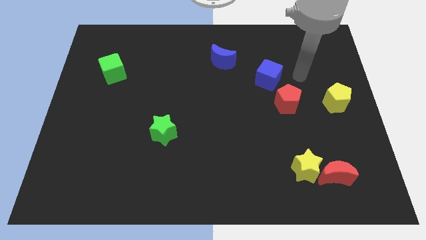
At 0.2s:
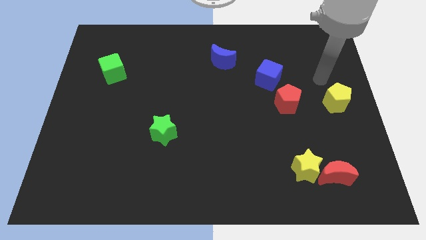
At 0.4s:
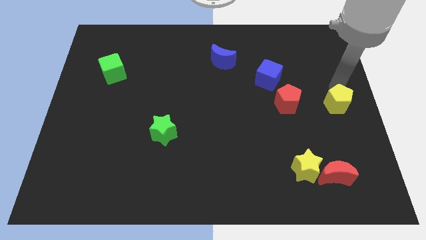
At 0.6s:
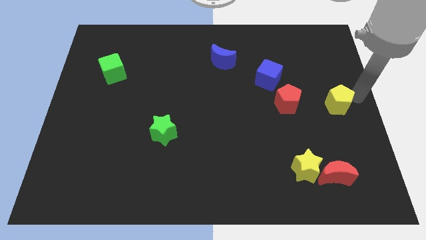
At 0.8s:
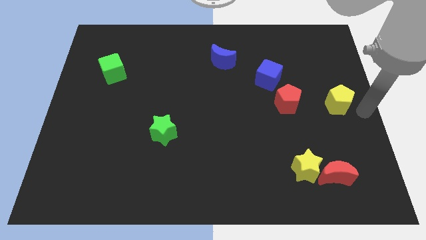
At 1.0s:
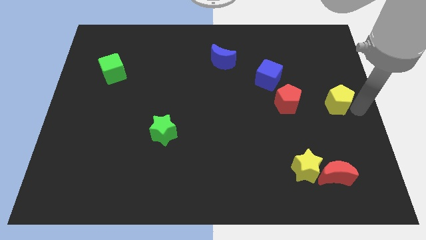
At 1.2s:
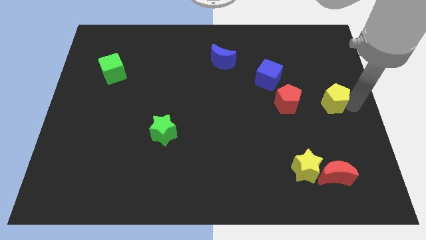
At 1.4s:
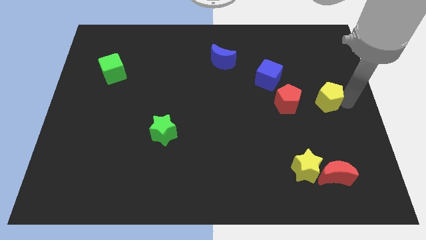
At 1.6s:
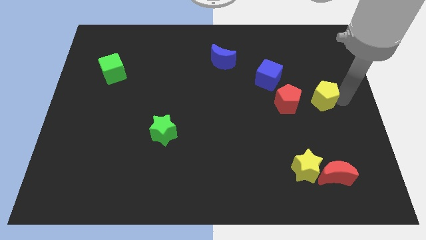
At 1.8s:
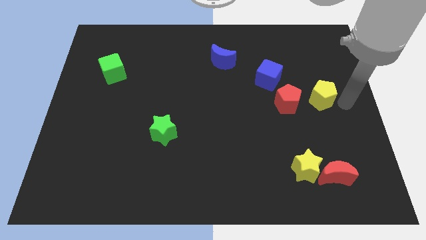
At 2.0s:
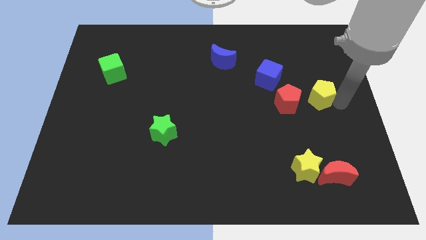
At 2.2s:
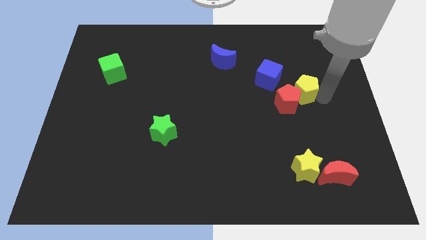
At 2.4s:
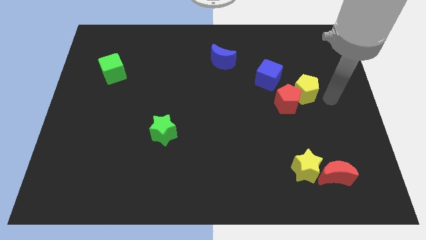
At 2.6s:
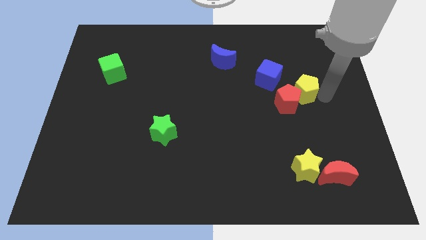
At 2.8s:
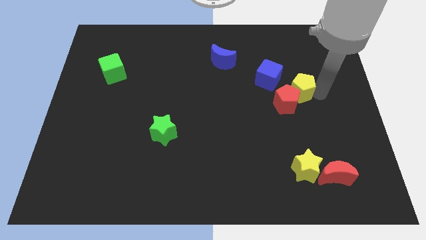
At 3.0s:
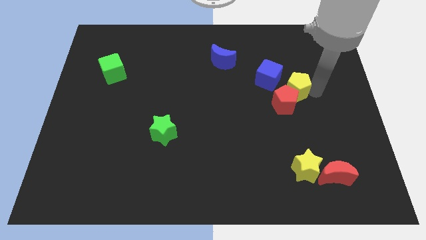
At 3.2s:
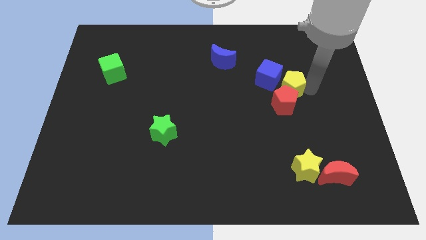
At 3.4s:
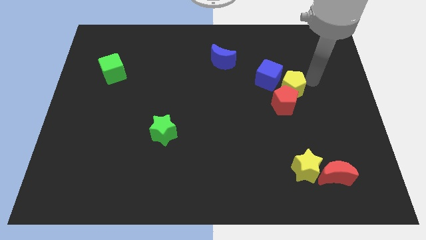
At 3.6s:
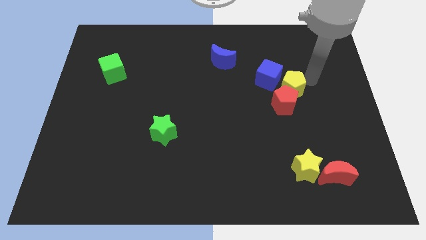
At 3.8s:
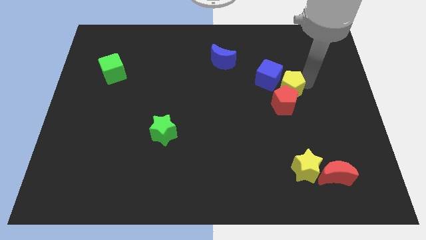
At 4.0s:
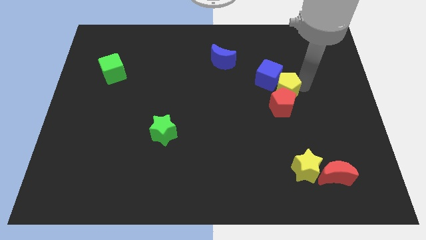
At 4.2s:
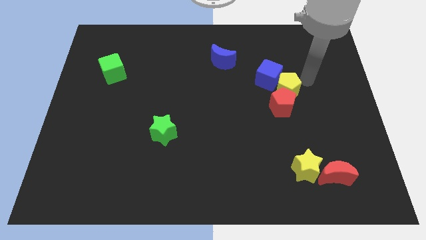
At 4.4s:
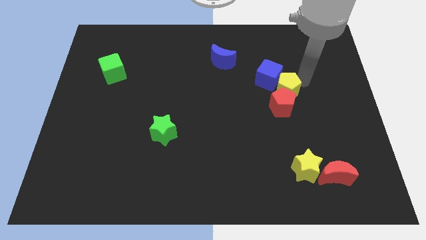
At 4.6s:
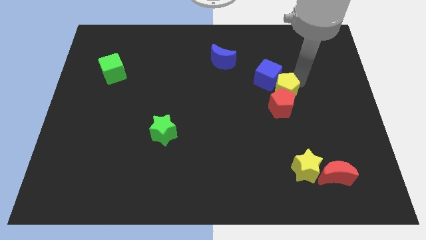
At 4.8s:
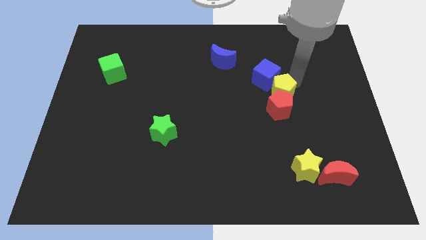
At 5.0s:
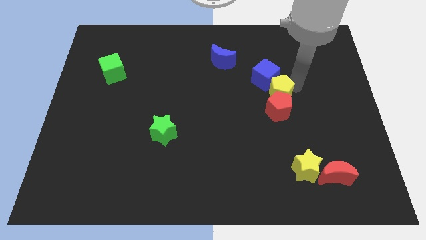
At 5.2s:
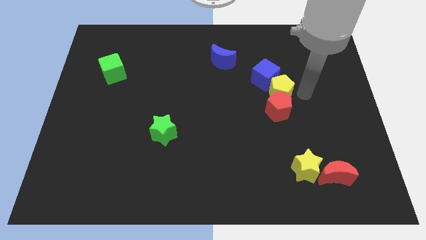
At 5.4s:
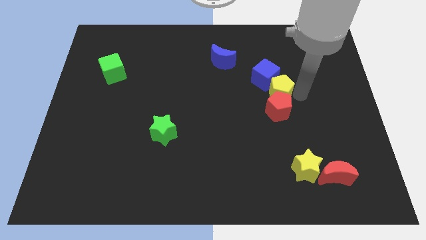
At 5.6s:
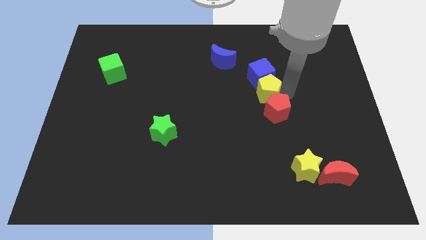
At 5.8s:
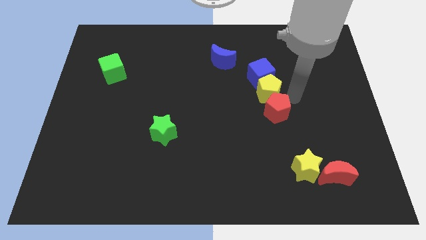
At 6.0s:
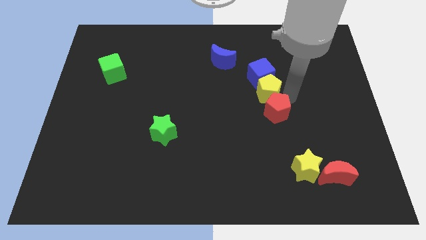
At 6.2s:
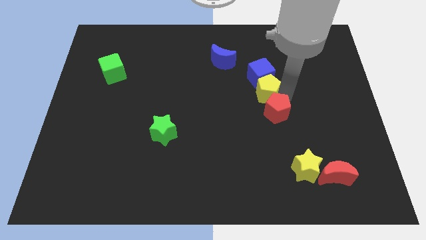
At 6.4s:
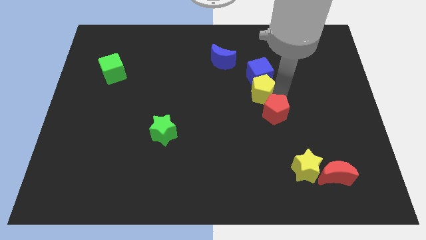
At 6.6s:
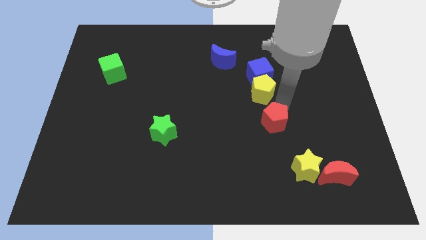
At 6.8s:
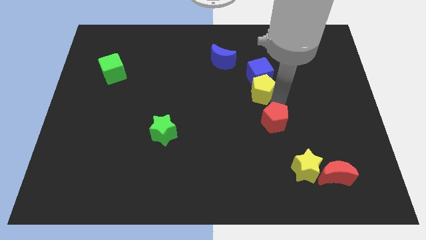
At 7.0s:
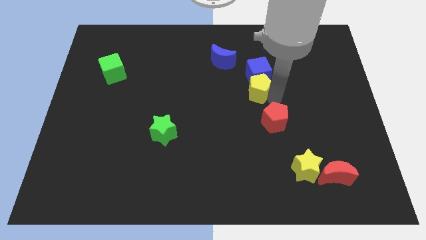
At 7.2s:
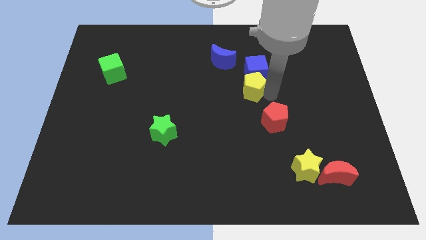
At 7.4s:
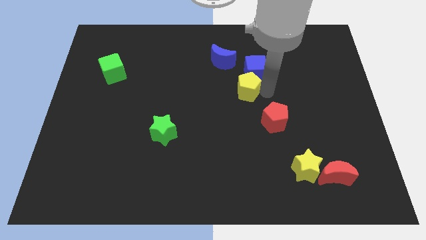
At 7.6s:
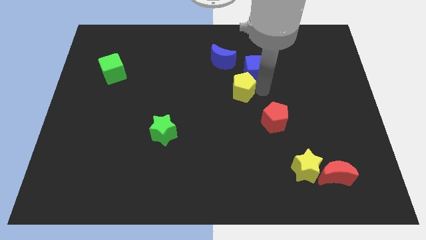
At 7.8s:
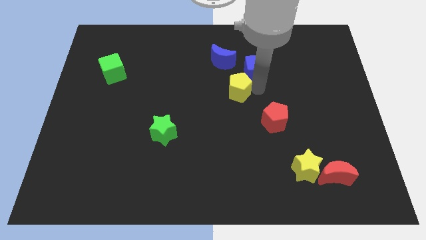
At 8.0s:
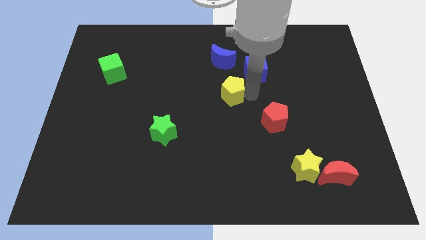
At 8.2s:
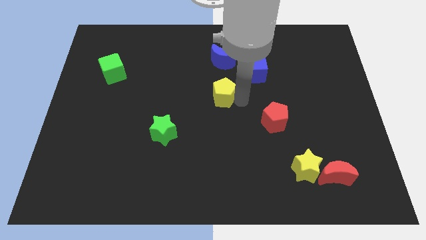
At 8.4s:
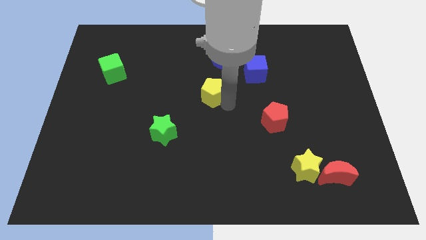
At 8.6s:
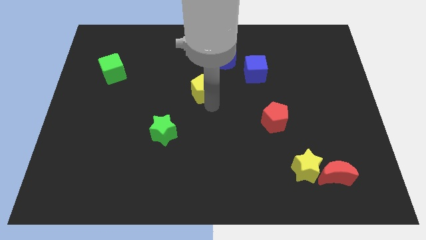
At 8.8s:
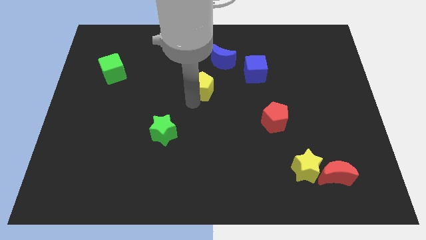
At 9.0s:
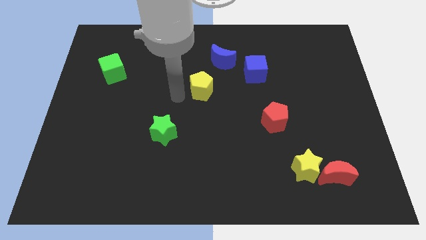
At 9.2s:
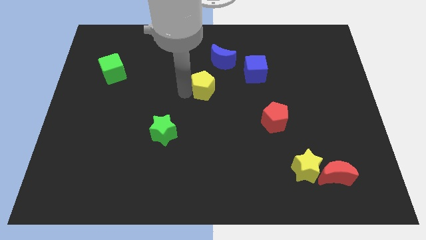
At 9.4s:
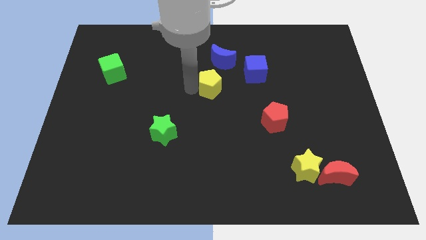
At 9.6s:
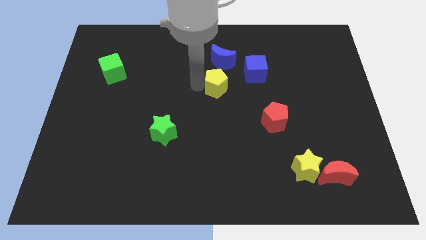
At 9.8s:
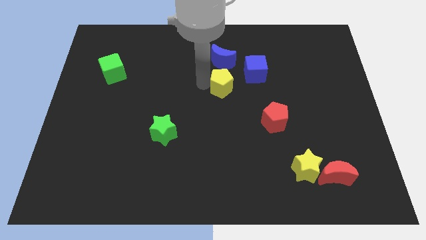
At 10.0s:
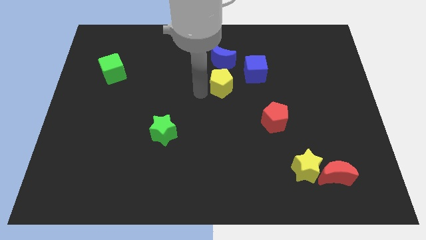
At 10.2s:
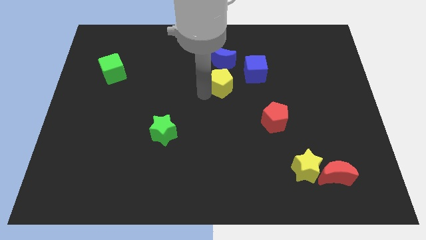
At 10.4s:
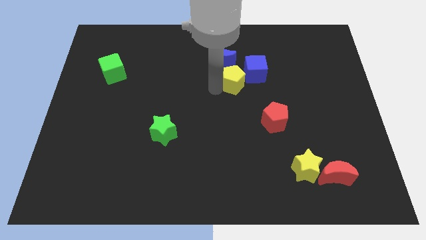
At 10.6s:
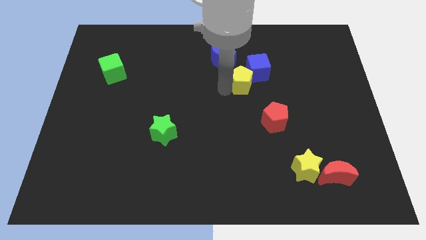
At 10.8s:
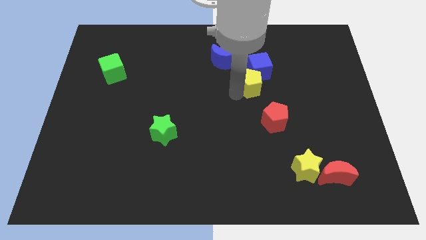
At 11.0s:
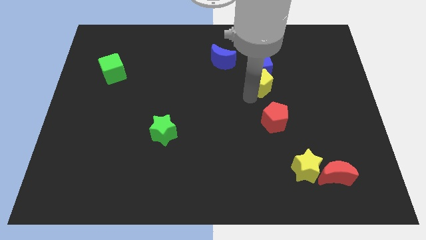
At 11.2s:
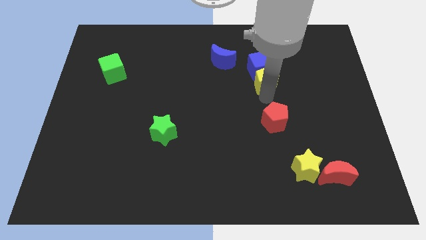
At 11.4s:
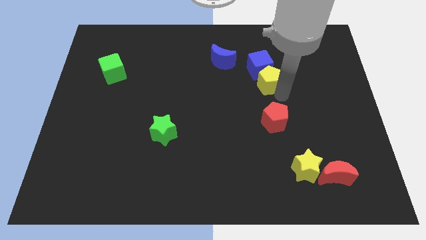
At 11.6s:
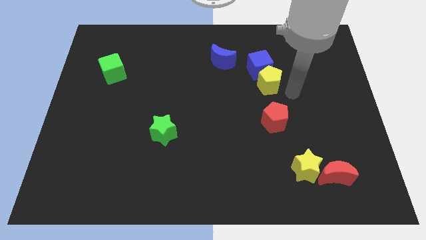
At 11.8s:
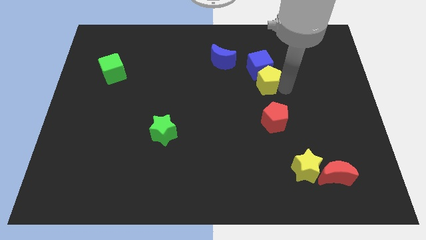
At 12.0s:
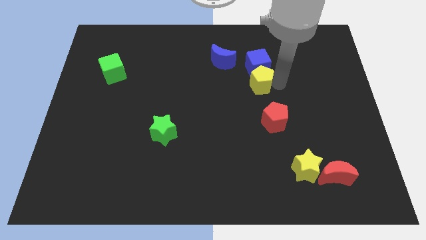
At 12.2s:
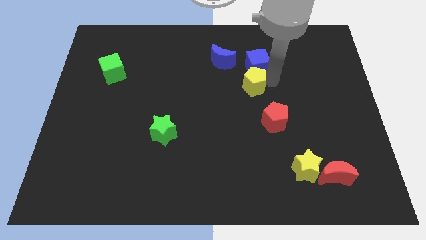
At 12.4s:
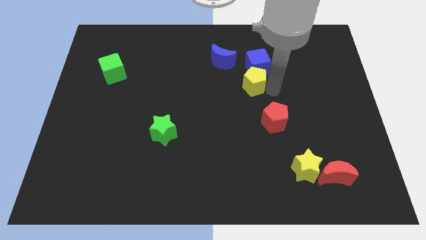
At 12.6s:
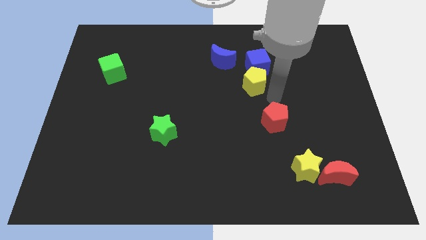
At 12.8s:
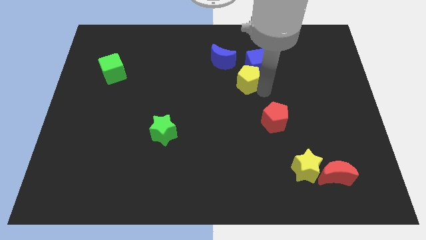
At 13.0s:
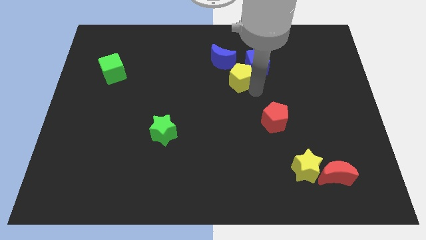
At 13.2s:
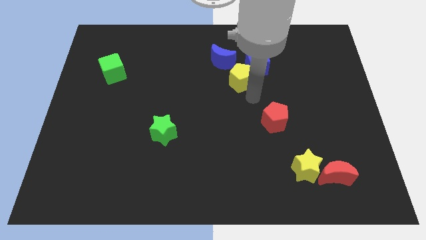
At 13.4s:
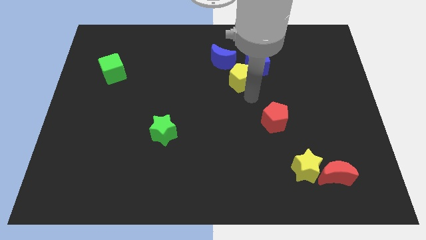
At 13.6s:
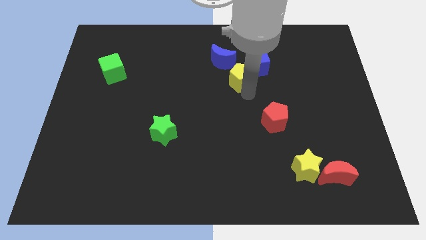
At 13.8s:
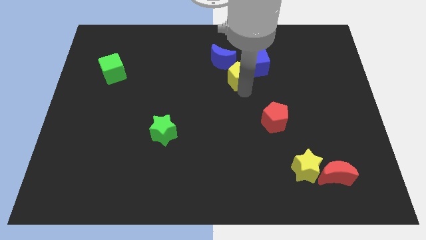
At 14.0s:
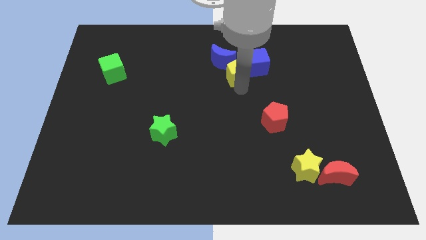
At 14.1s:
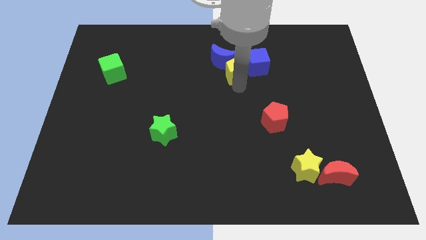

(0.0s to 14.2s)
push the yellow pentagon next to the blue moon

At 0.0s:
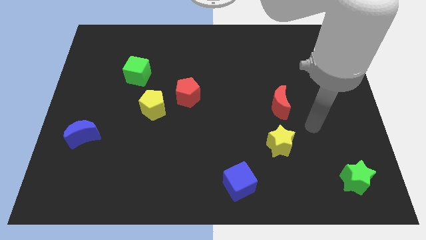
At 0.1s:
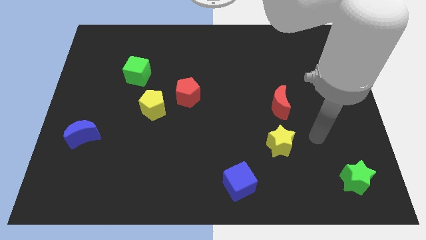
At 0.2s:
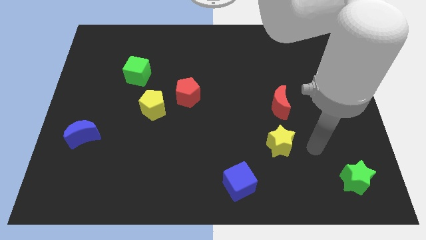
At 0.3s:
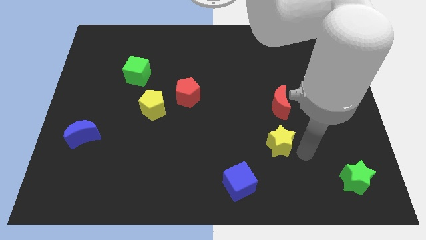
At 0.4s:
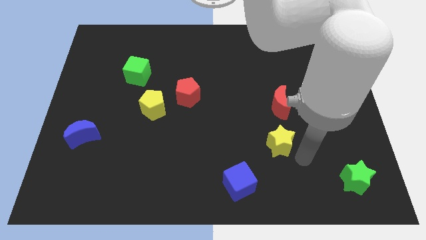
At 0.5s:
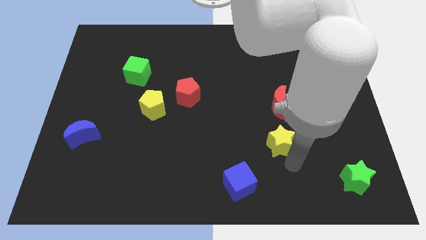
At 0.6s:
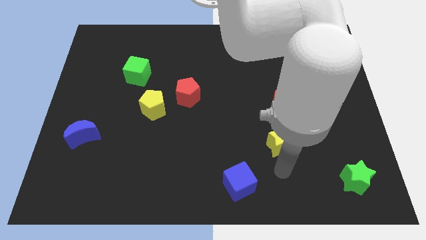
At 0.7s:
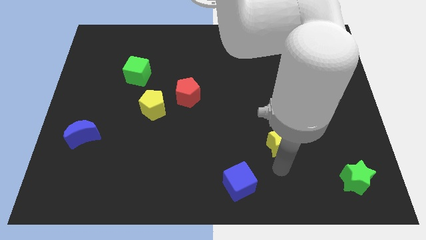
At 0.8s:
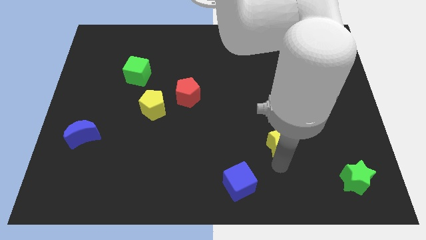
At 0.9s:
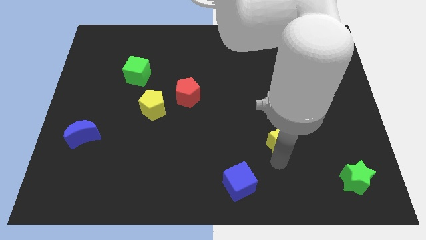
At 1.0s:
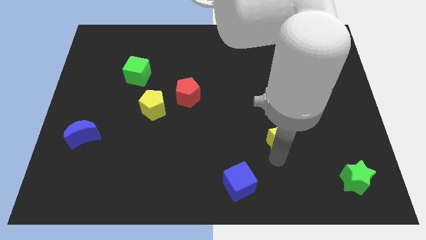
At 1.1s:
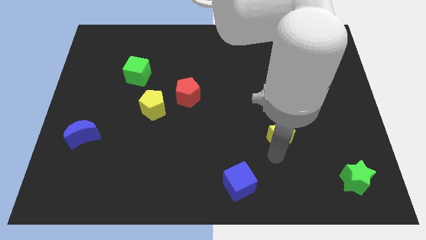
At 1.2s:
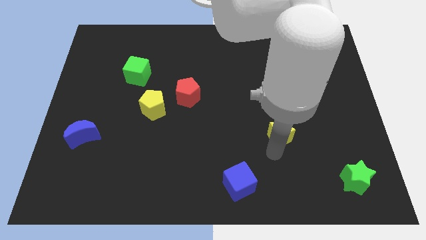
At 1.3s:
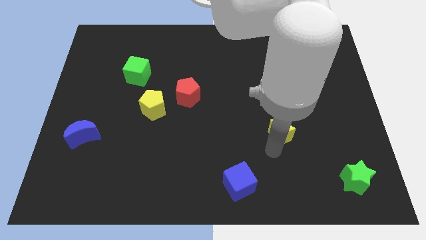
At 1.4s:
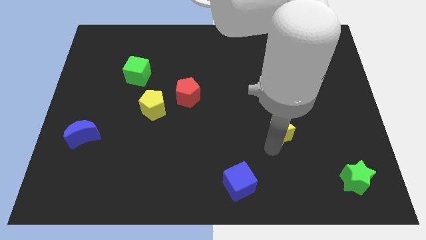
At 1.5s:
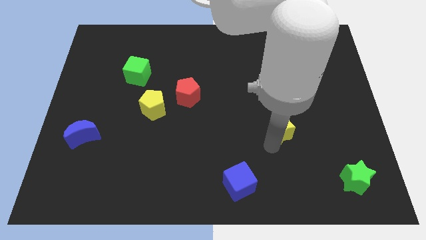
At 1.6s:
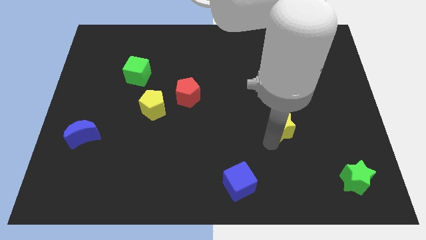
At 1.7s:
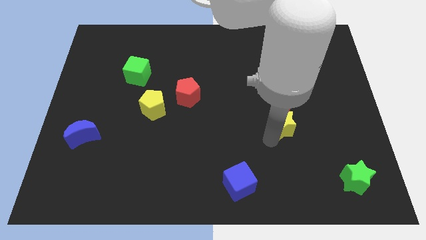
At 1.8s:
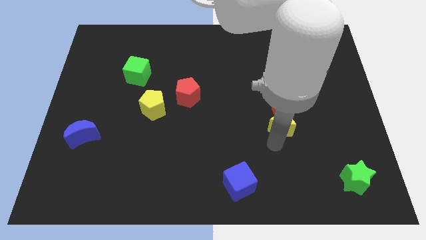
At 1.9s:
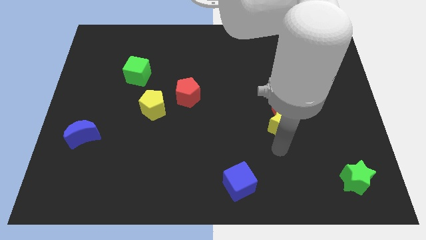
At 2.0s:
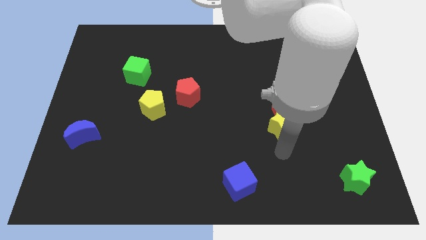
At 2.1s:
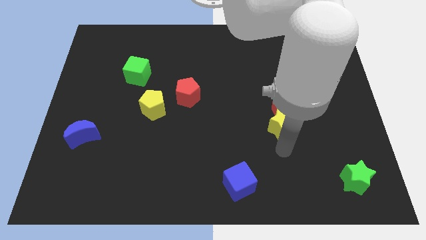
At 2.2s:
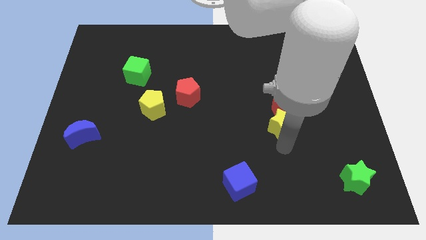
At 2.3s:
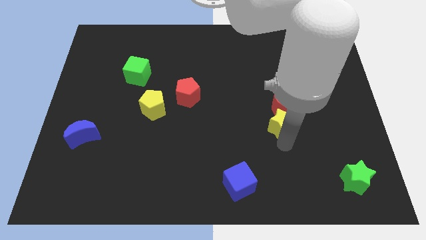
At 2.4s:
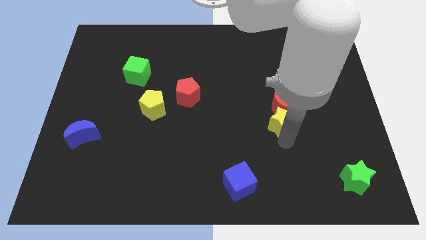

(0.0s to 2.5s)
push the yellow star to the red moon
